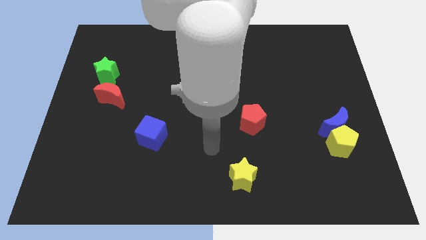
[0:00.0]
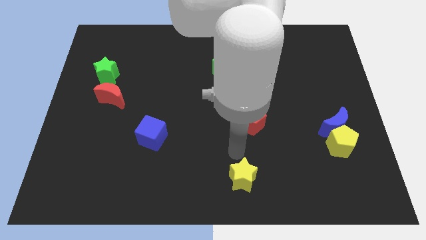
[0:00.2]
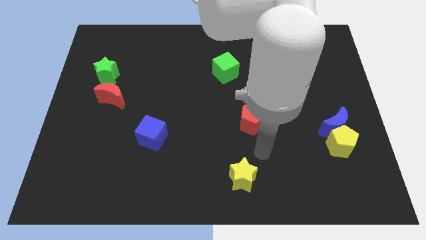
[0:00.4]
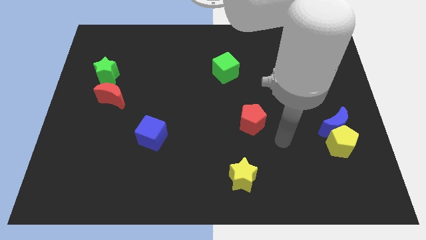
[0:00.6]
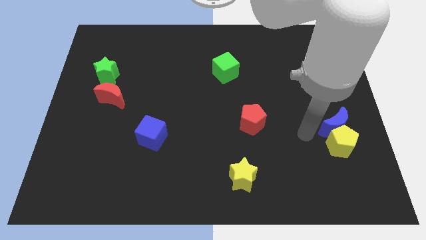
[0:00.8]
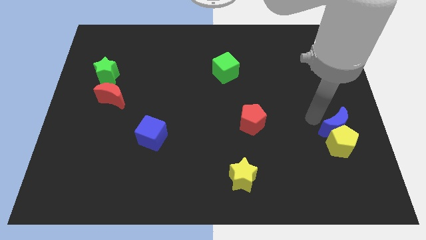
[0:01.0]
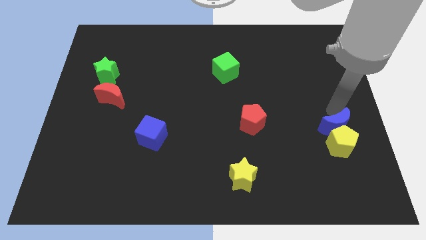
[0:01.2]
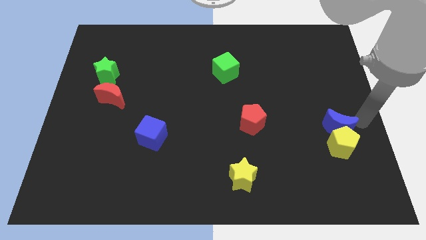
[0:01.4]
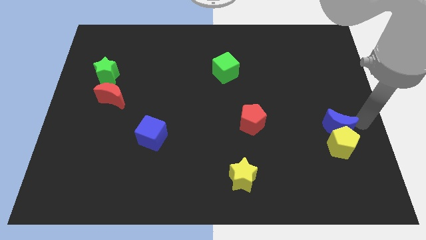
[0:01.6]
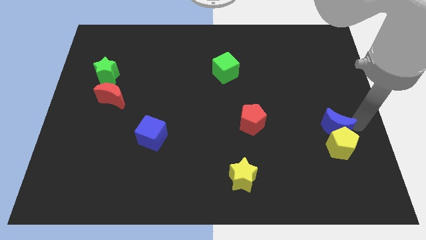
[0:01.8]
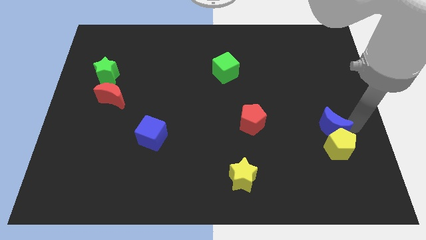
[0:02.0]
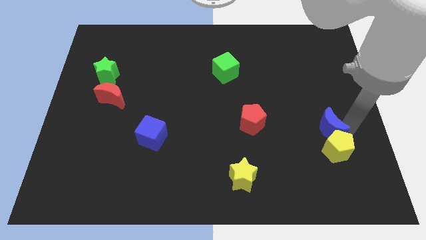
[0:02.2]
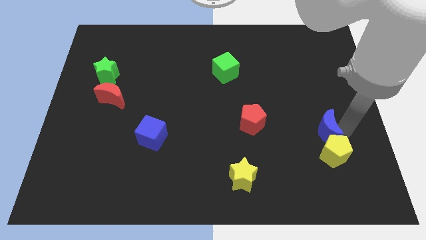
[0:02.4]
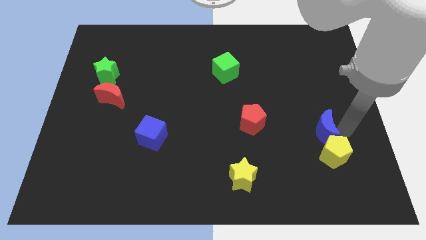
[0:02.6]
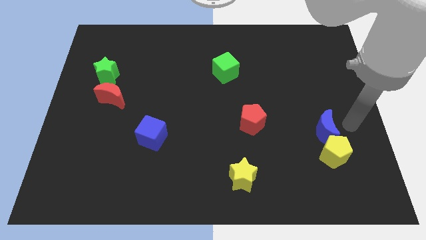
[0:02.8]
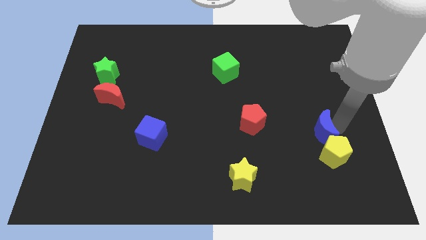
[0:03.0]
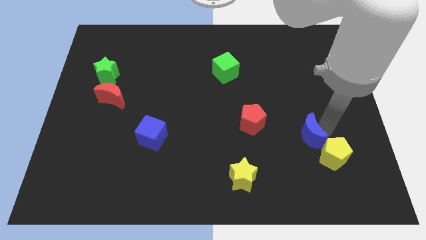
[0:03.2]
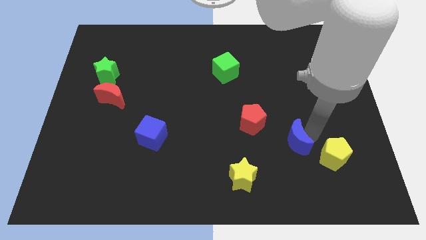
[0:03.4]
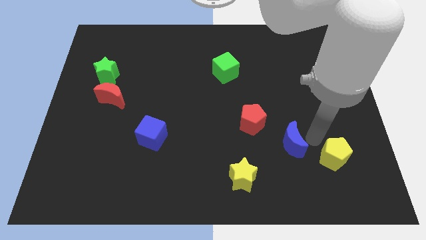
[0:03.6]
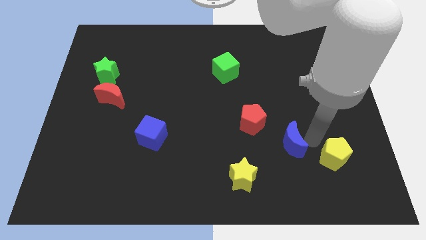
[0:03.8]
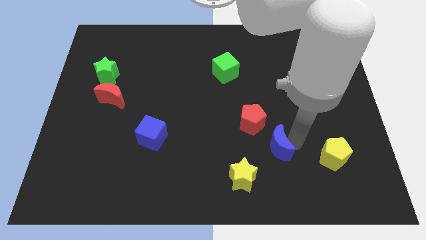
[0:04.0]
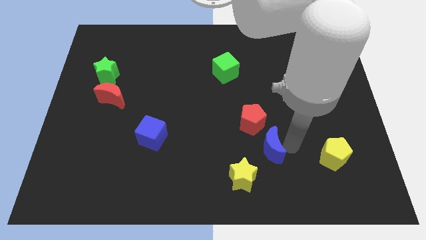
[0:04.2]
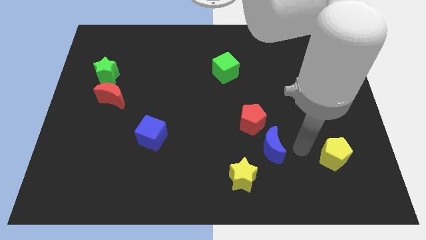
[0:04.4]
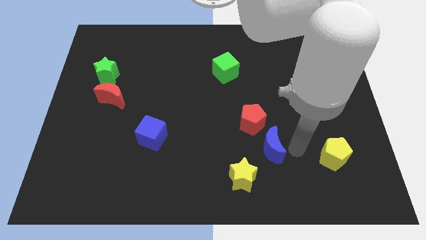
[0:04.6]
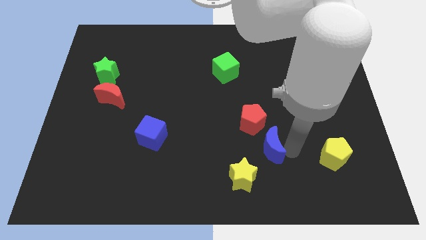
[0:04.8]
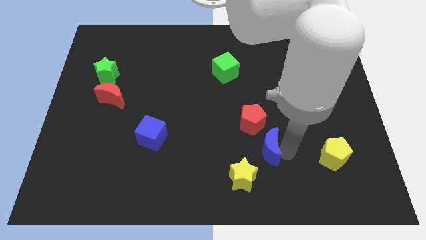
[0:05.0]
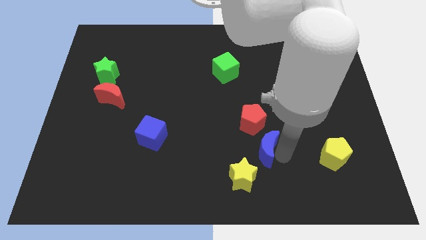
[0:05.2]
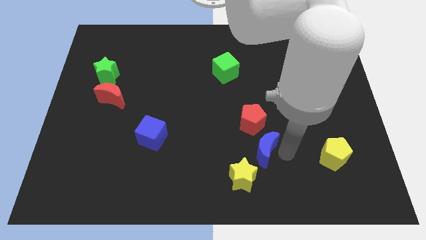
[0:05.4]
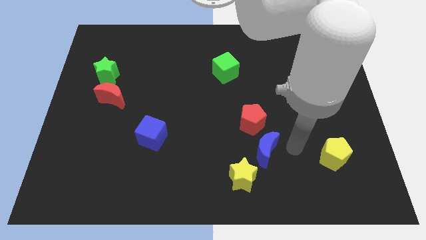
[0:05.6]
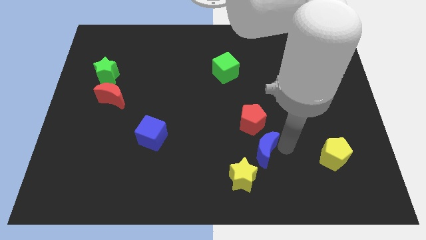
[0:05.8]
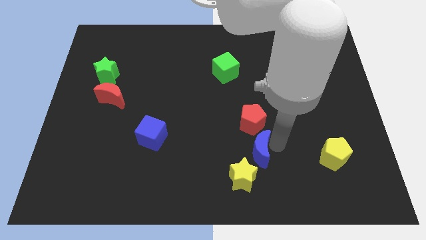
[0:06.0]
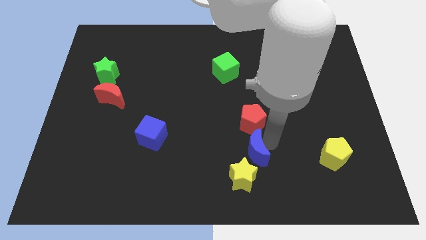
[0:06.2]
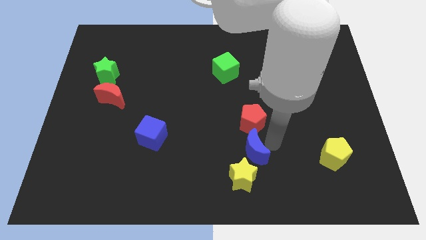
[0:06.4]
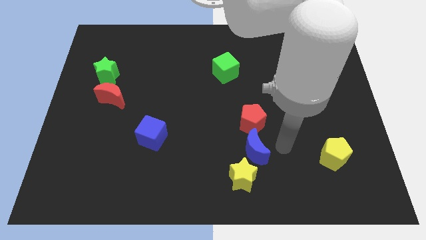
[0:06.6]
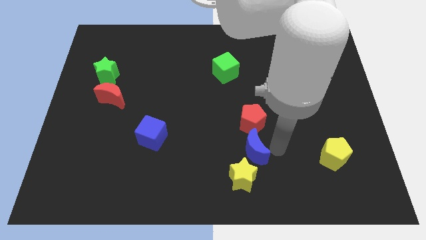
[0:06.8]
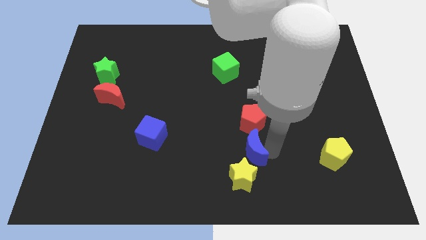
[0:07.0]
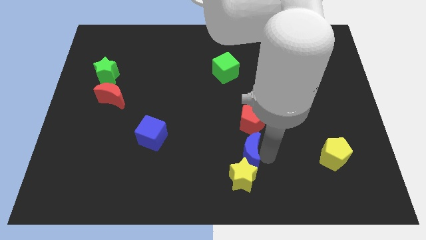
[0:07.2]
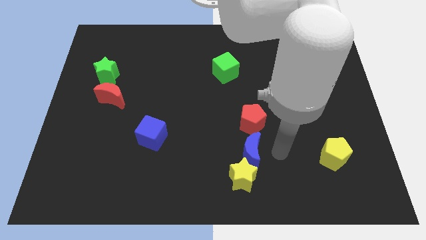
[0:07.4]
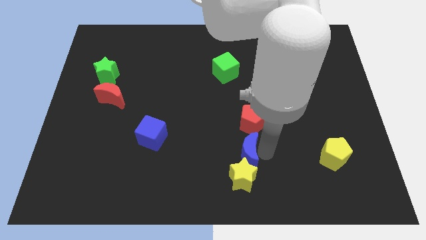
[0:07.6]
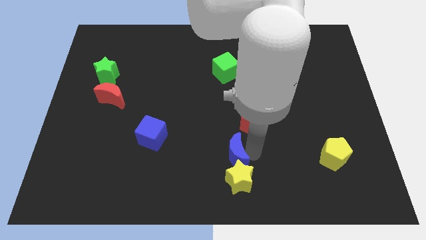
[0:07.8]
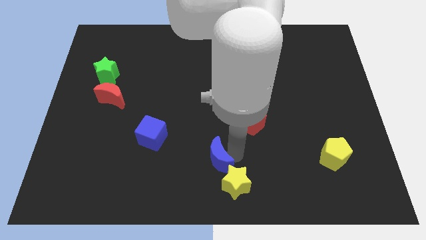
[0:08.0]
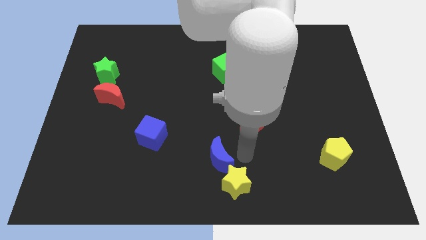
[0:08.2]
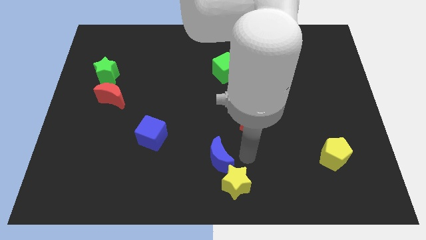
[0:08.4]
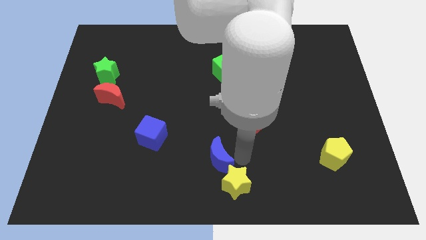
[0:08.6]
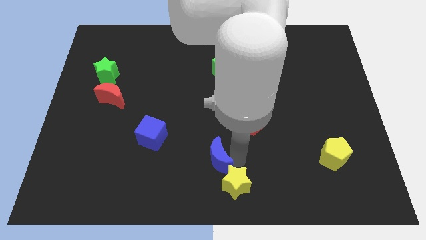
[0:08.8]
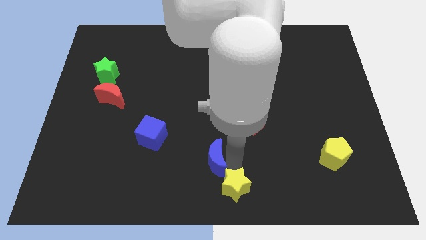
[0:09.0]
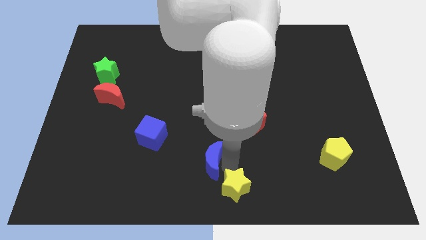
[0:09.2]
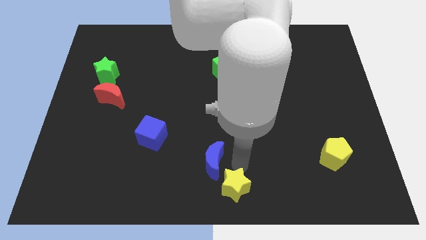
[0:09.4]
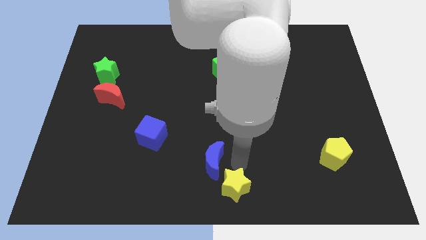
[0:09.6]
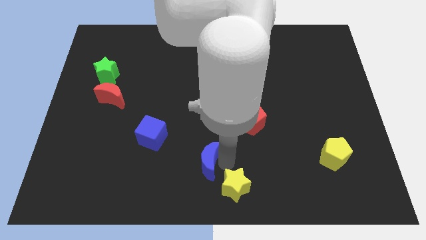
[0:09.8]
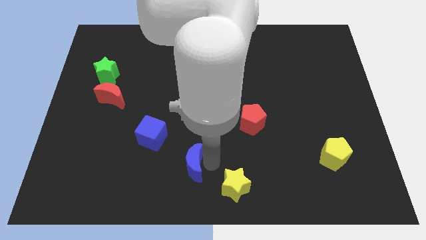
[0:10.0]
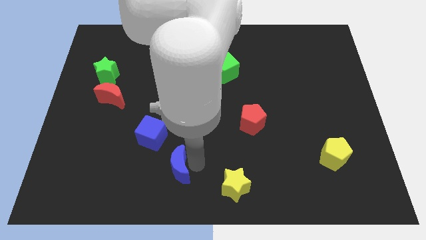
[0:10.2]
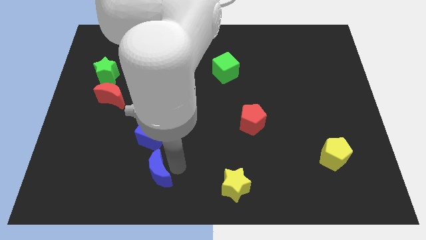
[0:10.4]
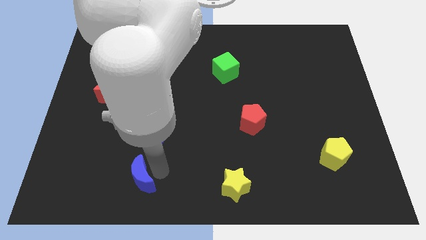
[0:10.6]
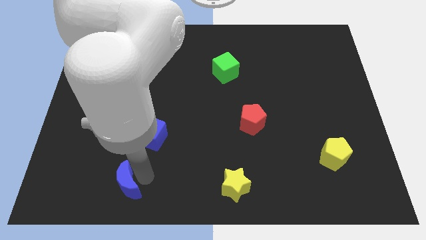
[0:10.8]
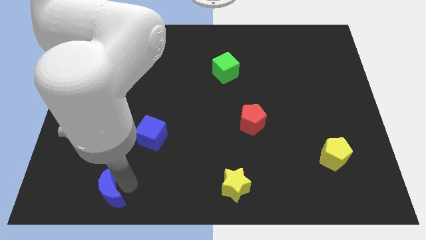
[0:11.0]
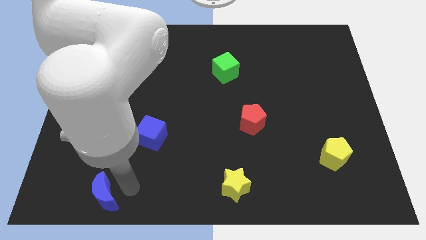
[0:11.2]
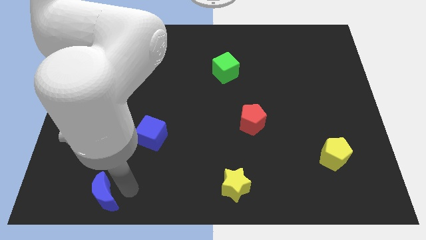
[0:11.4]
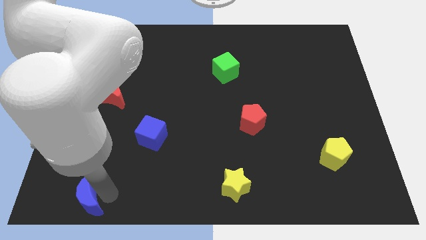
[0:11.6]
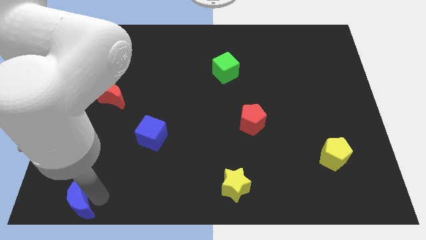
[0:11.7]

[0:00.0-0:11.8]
put the blue moon to the bottom left of the board
